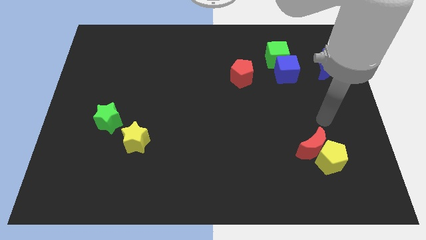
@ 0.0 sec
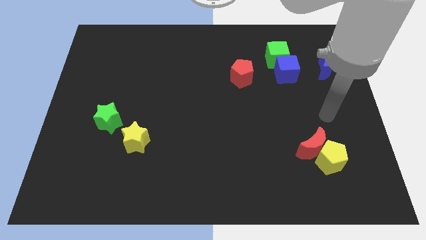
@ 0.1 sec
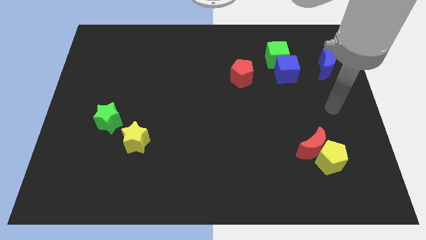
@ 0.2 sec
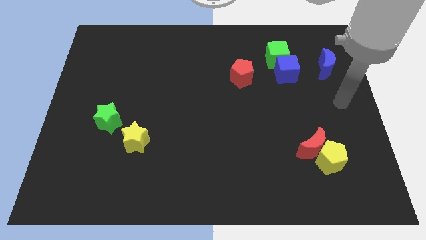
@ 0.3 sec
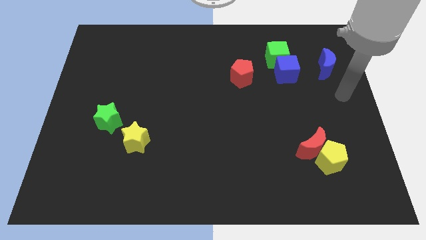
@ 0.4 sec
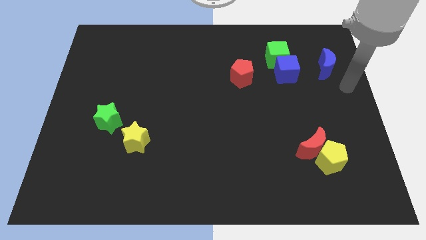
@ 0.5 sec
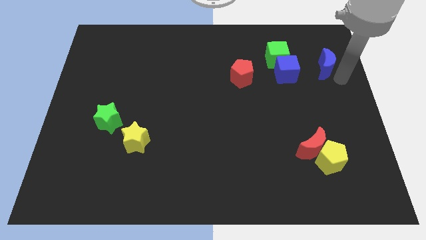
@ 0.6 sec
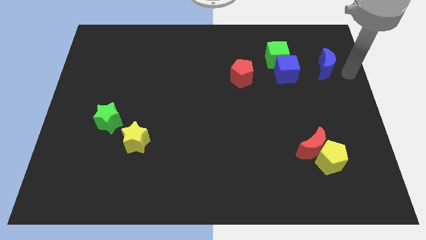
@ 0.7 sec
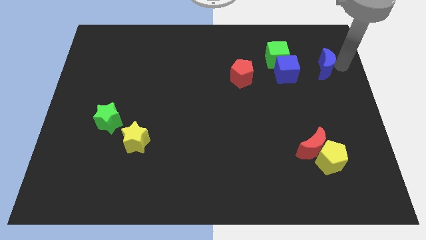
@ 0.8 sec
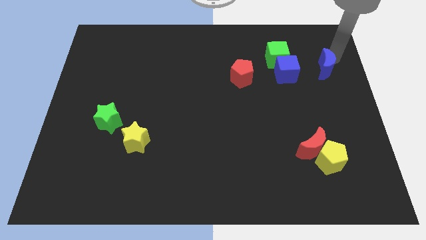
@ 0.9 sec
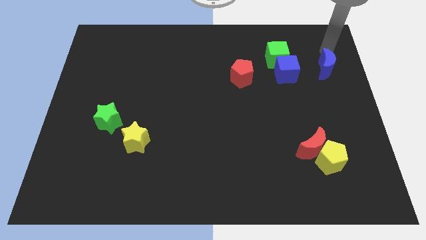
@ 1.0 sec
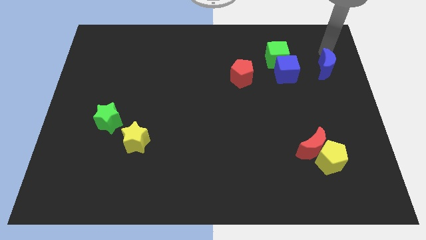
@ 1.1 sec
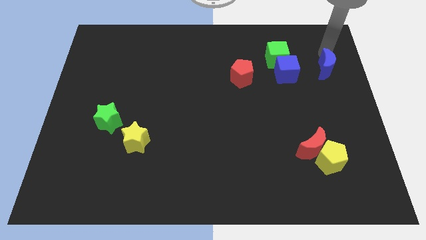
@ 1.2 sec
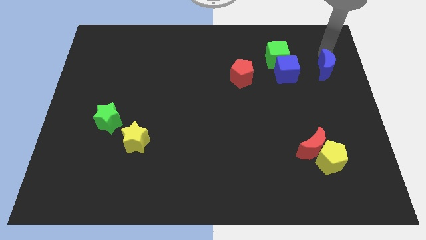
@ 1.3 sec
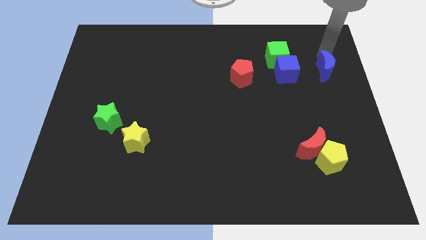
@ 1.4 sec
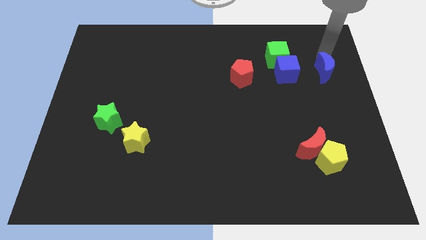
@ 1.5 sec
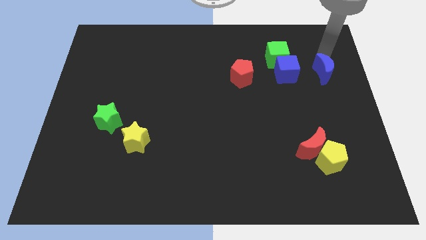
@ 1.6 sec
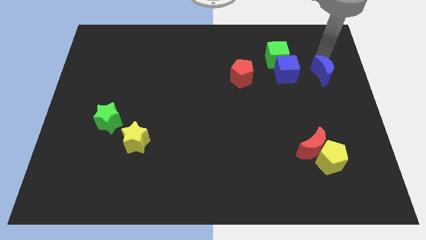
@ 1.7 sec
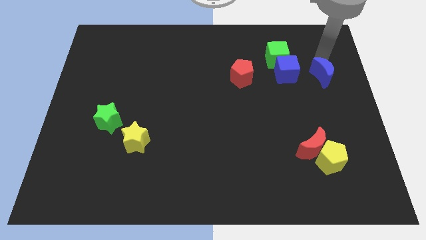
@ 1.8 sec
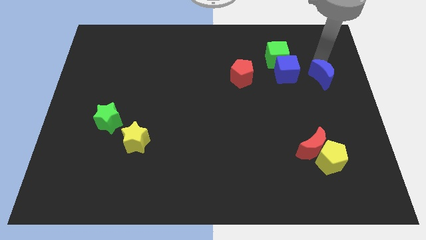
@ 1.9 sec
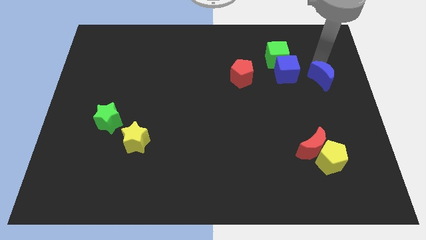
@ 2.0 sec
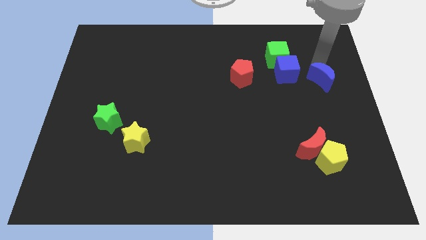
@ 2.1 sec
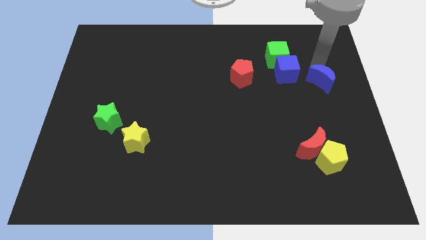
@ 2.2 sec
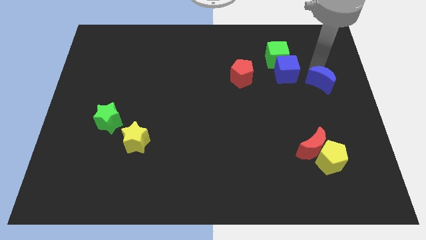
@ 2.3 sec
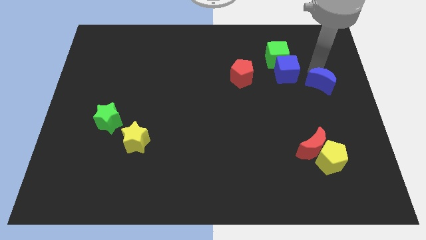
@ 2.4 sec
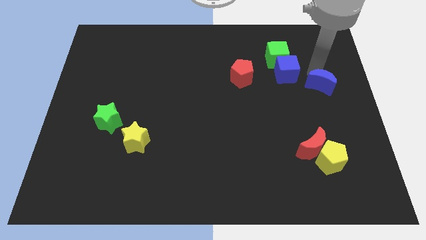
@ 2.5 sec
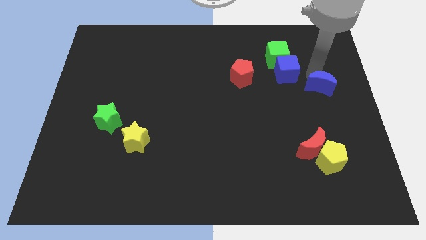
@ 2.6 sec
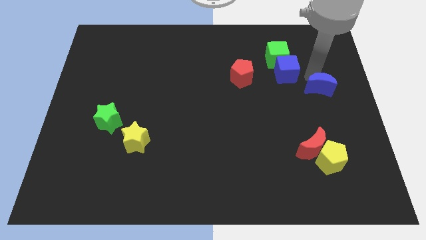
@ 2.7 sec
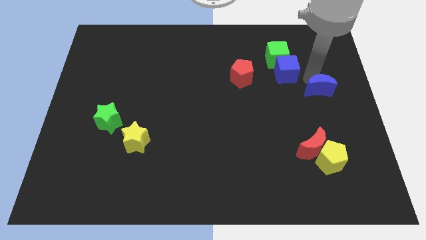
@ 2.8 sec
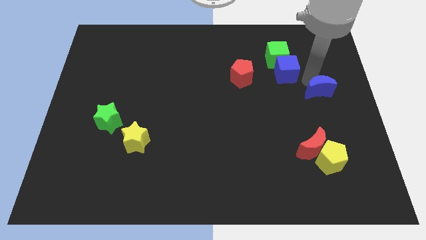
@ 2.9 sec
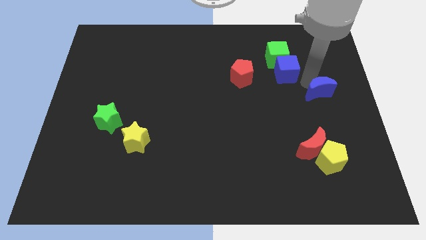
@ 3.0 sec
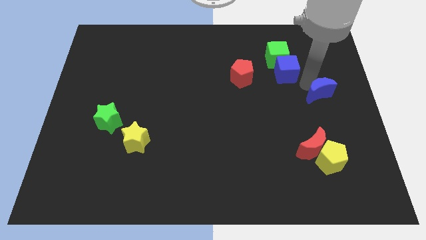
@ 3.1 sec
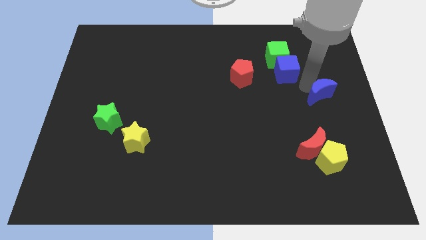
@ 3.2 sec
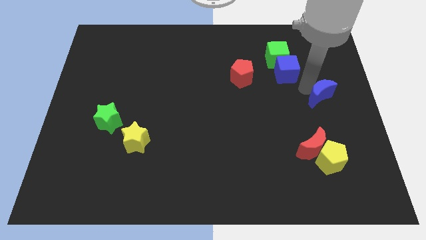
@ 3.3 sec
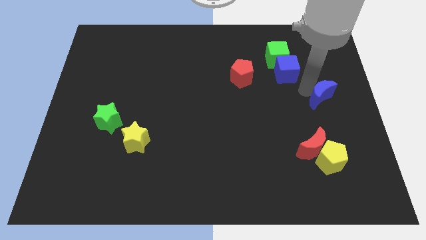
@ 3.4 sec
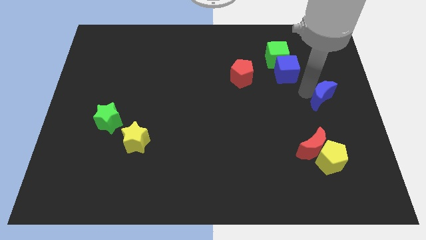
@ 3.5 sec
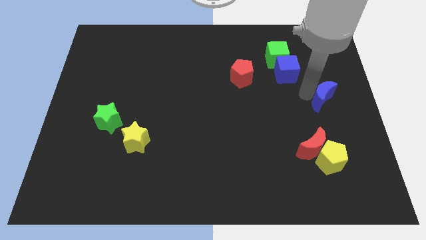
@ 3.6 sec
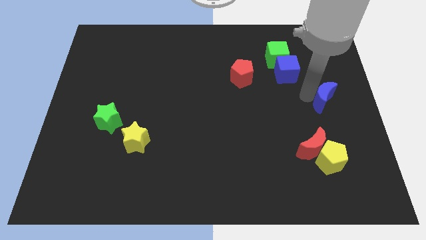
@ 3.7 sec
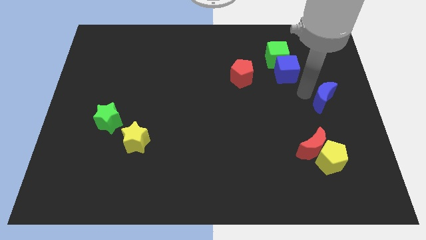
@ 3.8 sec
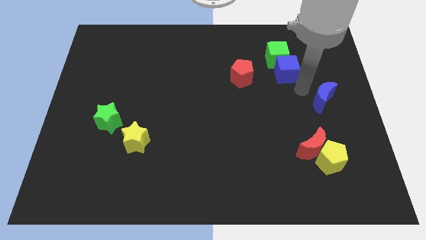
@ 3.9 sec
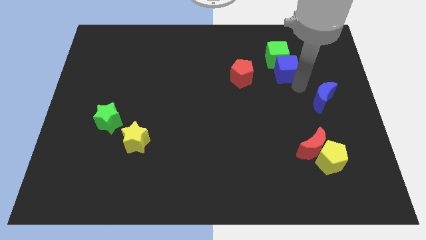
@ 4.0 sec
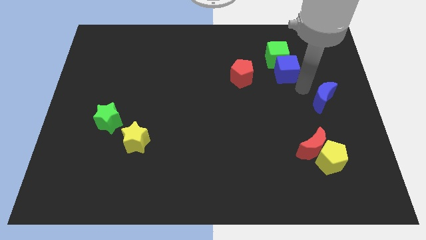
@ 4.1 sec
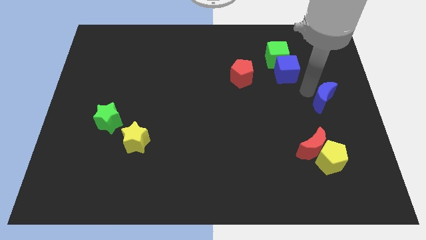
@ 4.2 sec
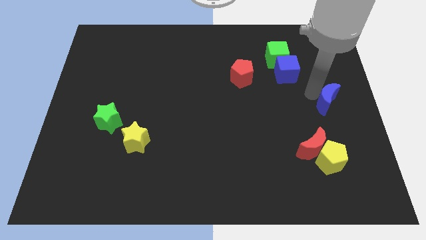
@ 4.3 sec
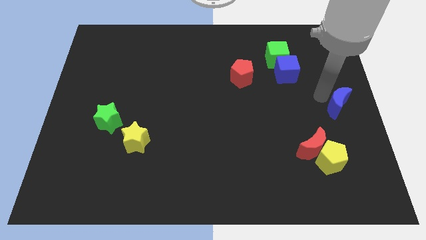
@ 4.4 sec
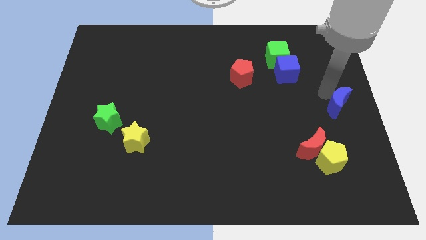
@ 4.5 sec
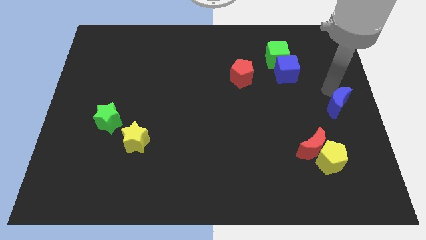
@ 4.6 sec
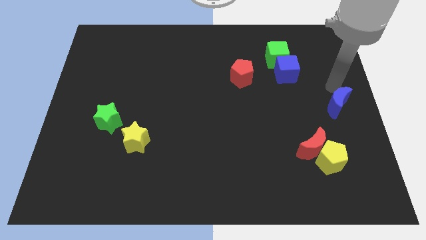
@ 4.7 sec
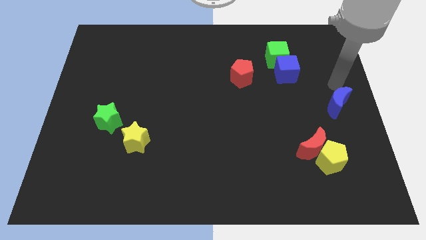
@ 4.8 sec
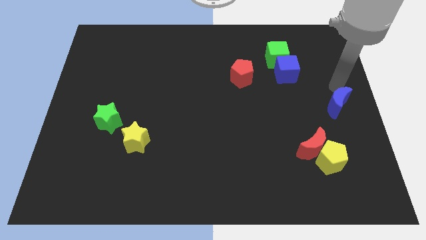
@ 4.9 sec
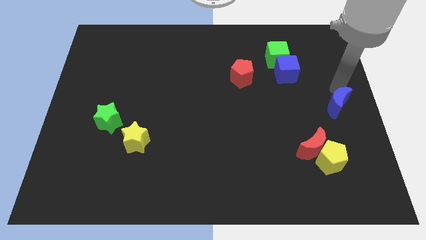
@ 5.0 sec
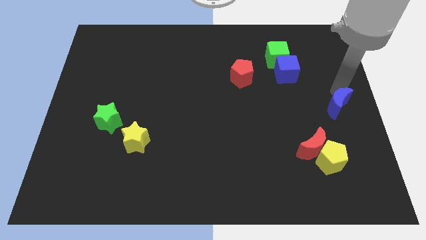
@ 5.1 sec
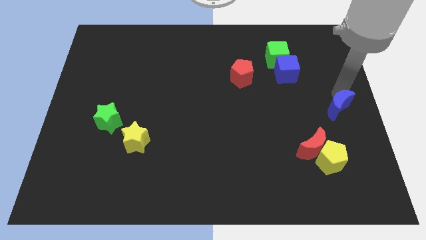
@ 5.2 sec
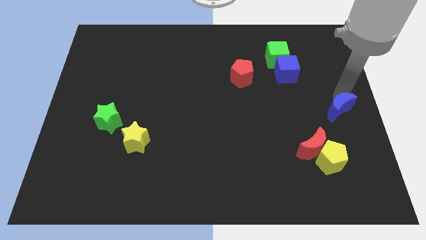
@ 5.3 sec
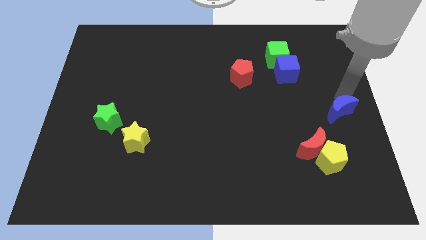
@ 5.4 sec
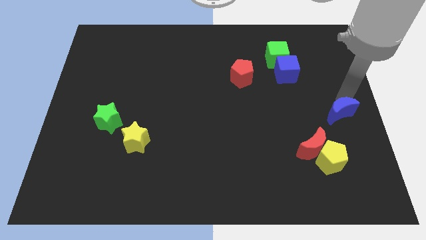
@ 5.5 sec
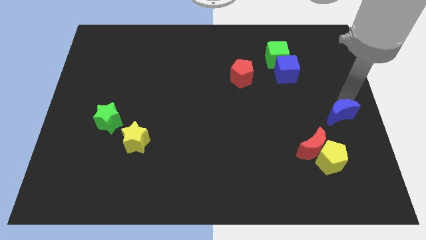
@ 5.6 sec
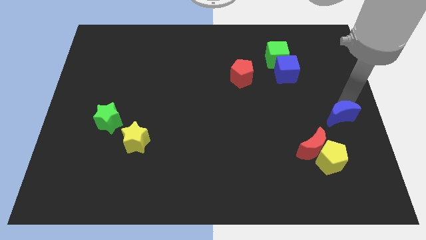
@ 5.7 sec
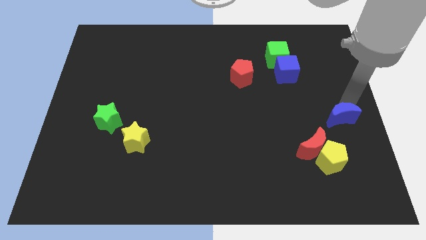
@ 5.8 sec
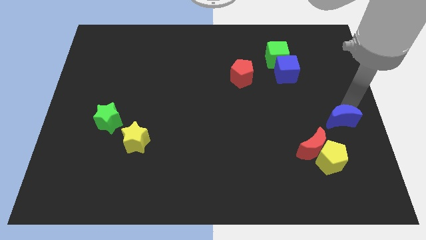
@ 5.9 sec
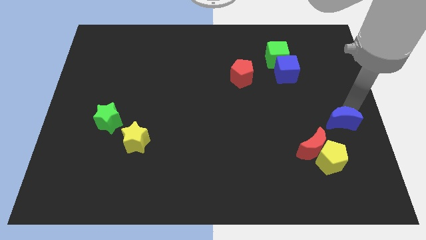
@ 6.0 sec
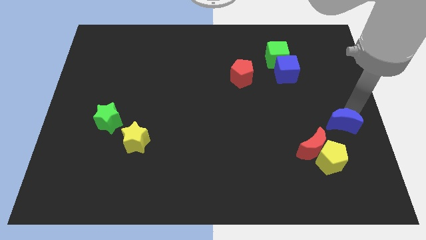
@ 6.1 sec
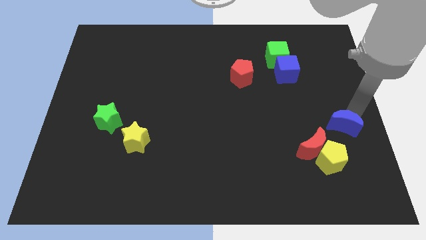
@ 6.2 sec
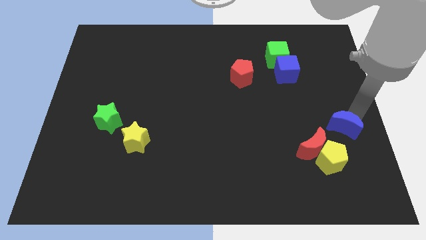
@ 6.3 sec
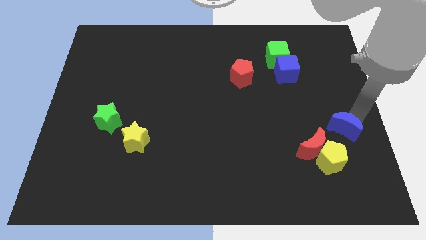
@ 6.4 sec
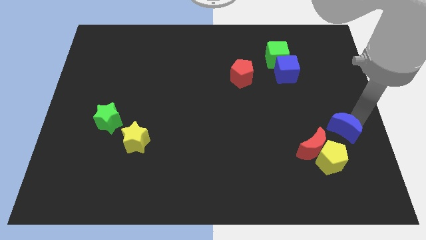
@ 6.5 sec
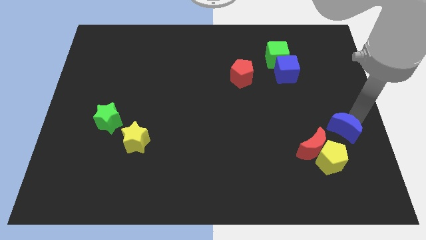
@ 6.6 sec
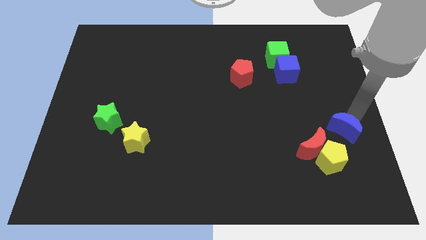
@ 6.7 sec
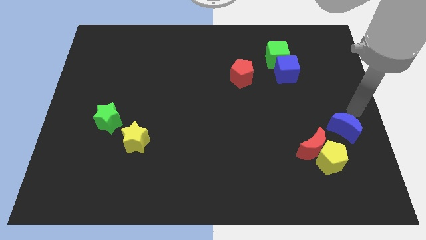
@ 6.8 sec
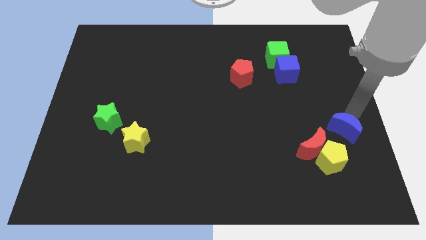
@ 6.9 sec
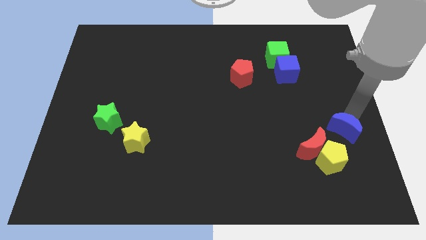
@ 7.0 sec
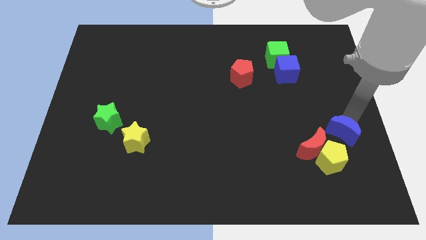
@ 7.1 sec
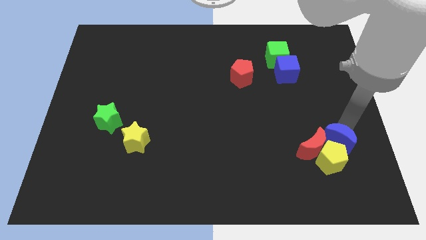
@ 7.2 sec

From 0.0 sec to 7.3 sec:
slide the blue moon close to the yellow pentagon
